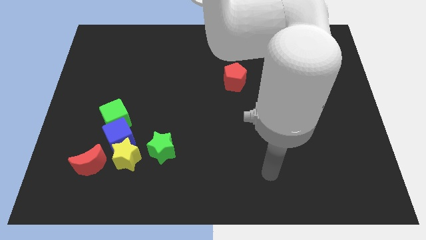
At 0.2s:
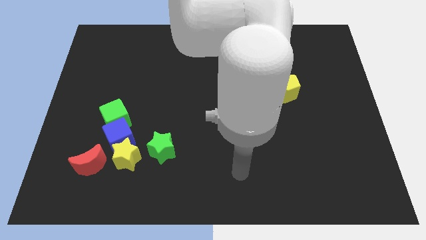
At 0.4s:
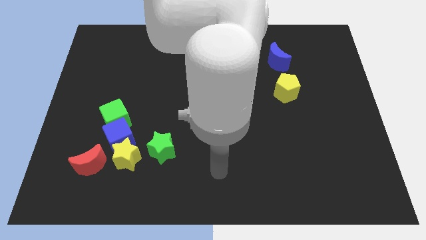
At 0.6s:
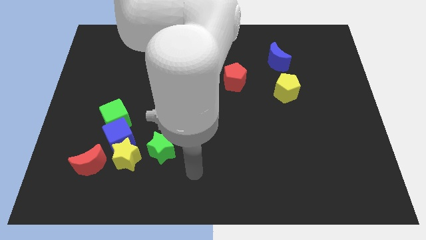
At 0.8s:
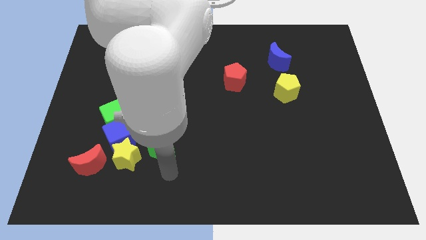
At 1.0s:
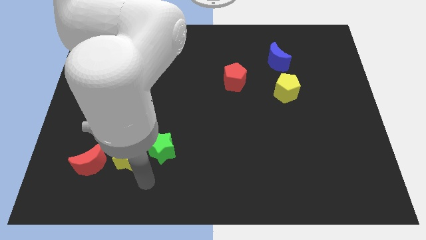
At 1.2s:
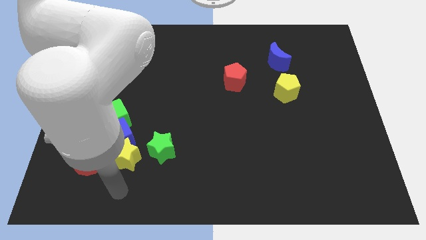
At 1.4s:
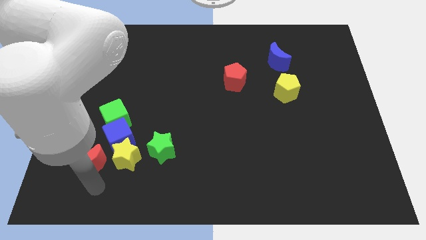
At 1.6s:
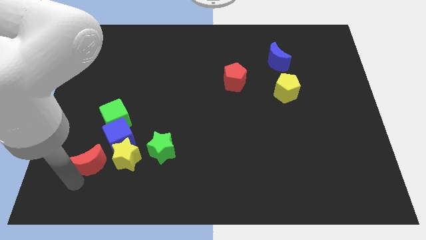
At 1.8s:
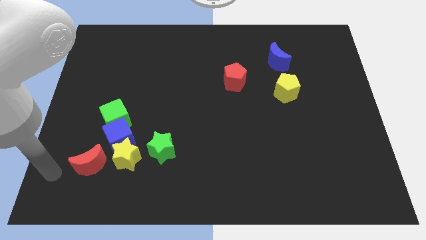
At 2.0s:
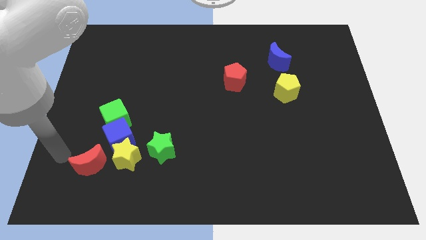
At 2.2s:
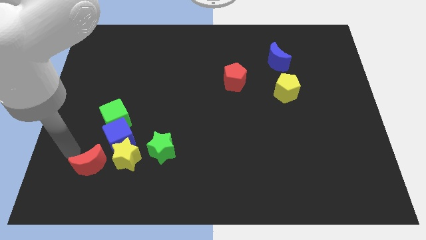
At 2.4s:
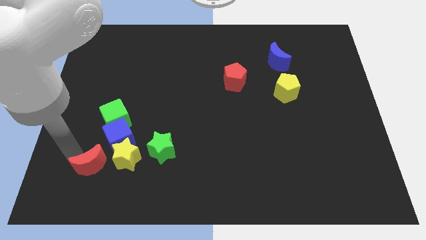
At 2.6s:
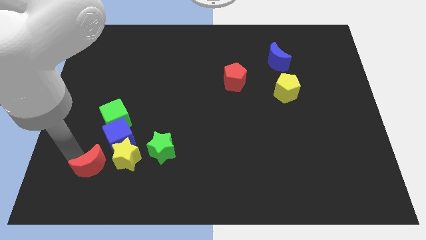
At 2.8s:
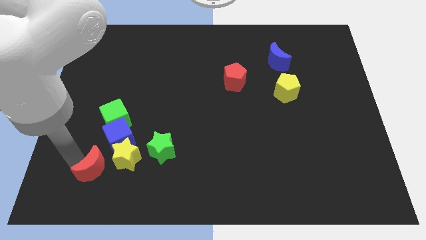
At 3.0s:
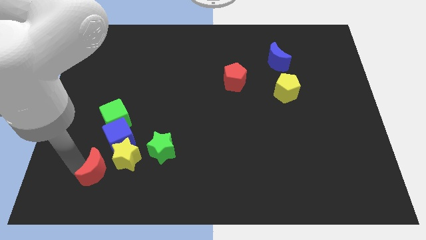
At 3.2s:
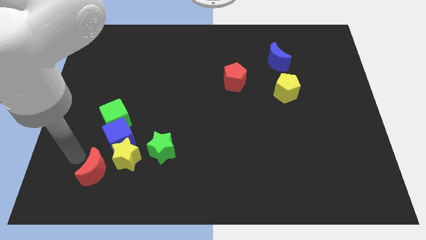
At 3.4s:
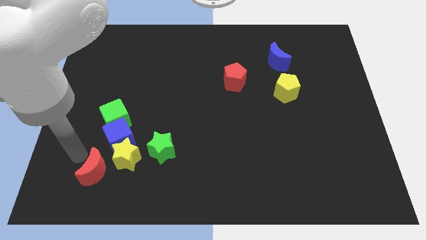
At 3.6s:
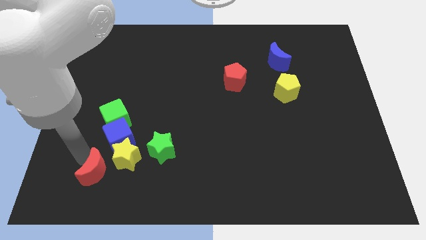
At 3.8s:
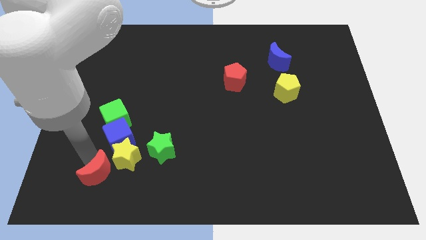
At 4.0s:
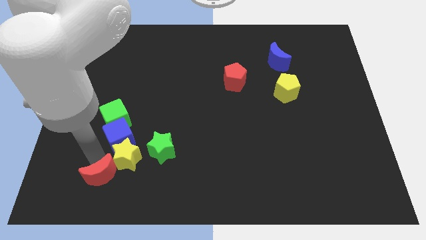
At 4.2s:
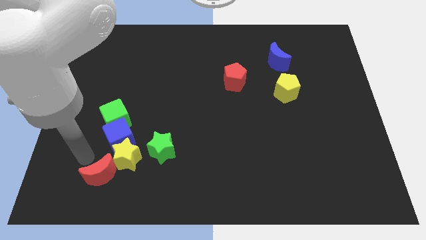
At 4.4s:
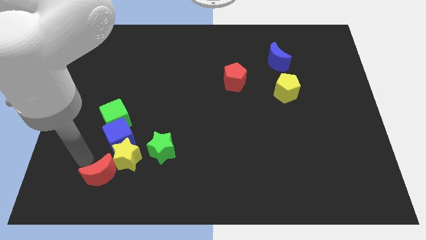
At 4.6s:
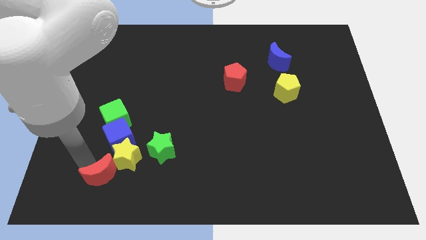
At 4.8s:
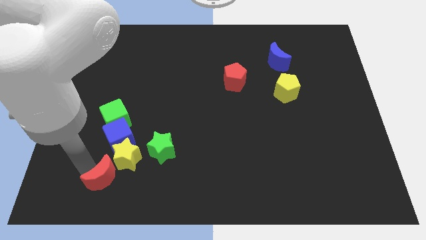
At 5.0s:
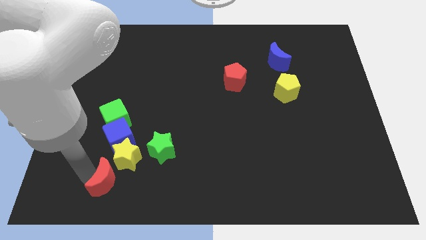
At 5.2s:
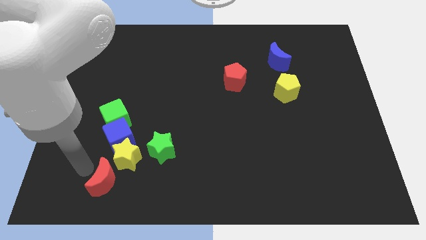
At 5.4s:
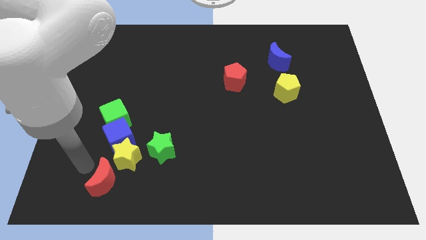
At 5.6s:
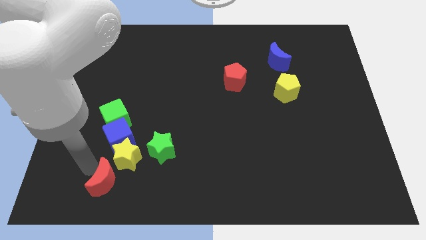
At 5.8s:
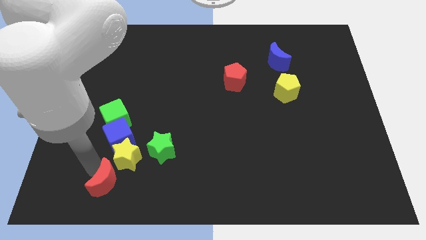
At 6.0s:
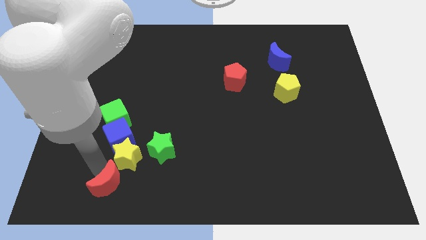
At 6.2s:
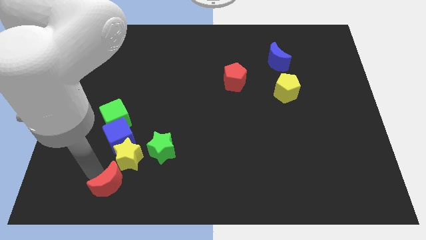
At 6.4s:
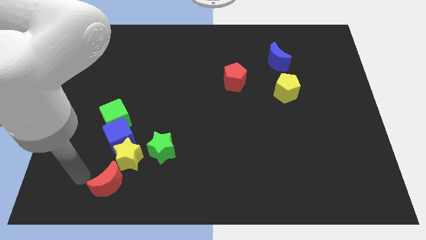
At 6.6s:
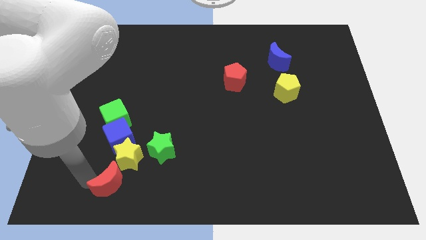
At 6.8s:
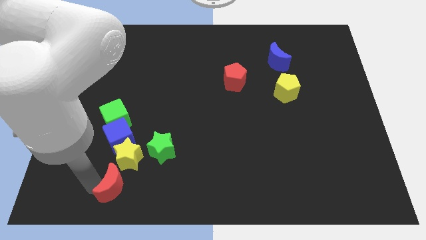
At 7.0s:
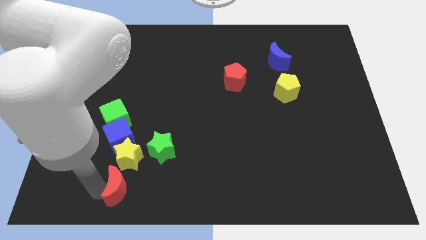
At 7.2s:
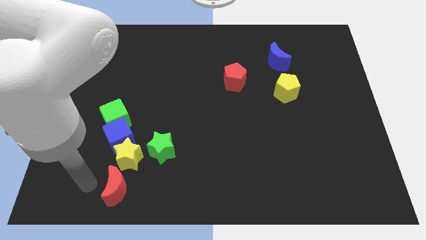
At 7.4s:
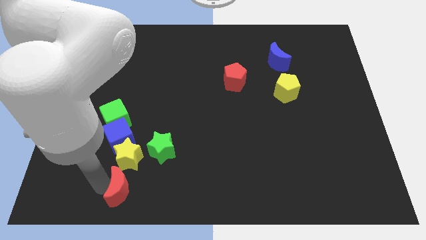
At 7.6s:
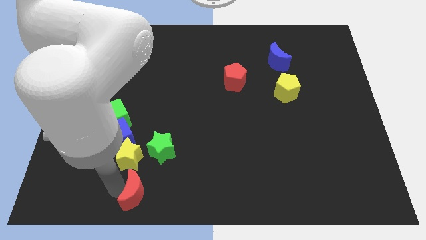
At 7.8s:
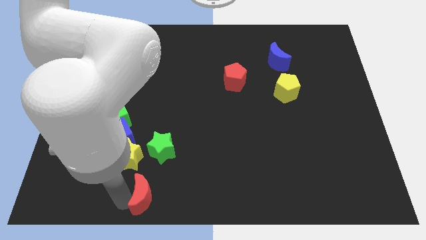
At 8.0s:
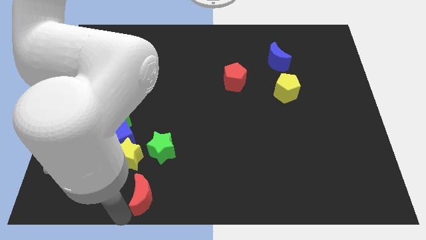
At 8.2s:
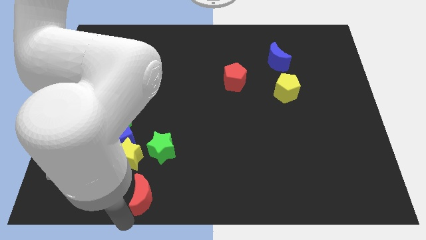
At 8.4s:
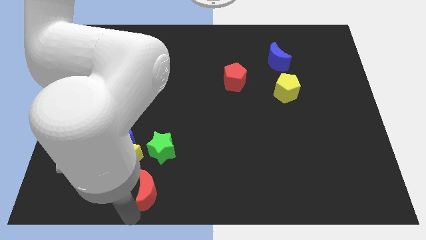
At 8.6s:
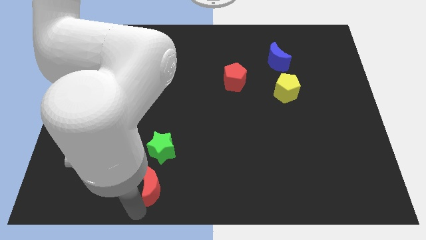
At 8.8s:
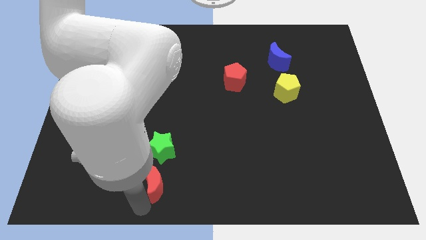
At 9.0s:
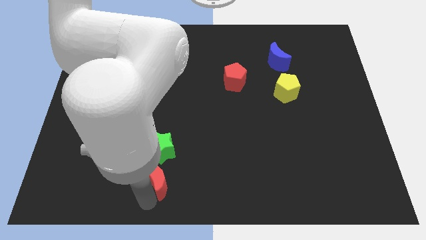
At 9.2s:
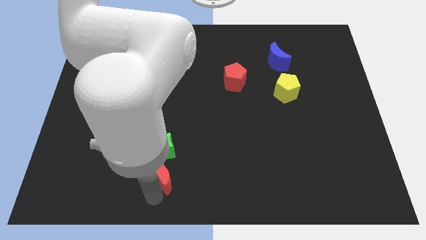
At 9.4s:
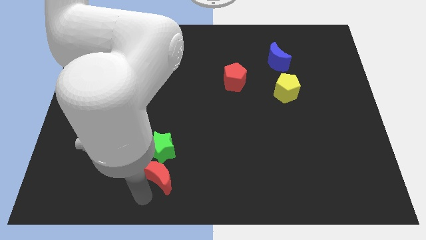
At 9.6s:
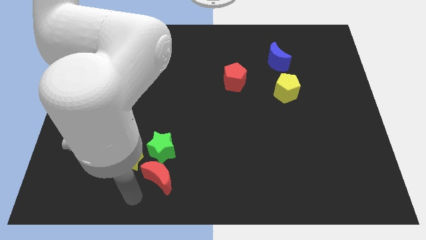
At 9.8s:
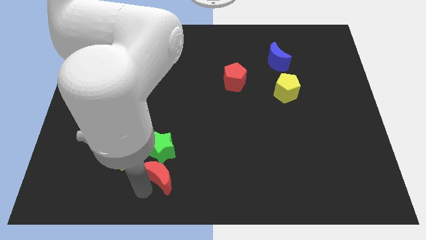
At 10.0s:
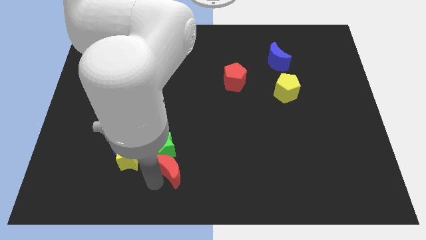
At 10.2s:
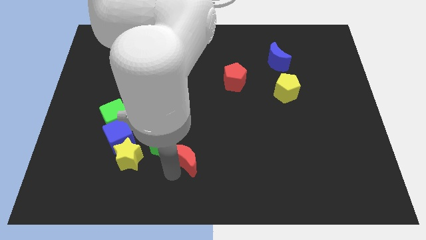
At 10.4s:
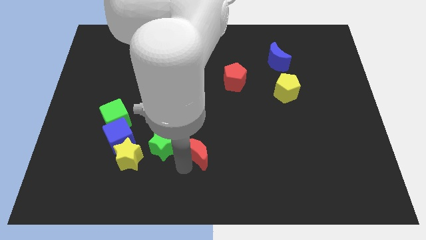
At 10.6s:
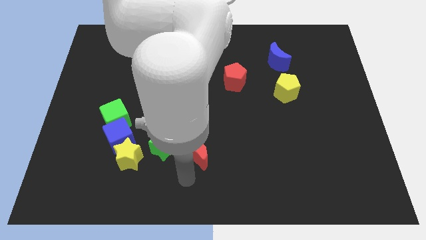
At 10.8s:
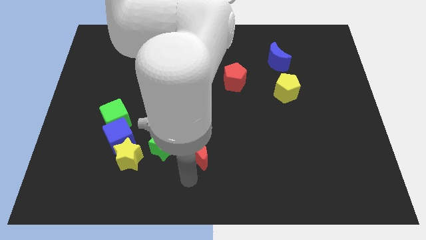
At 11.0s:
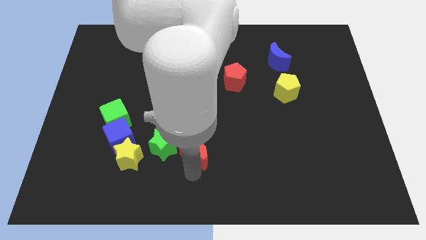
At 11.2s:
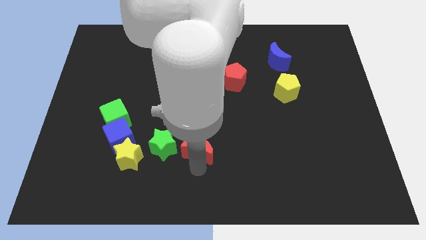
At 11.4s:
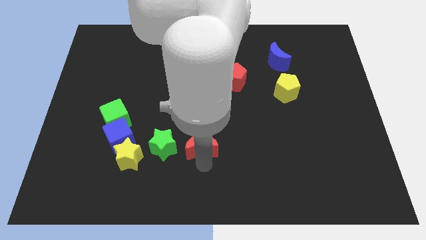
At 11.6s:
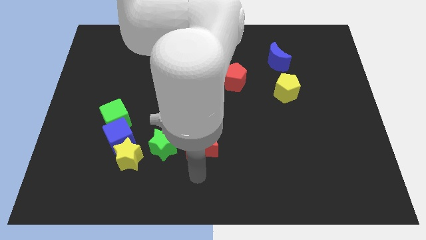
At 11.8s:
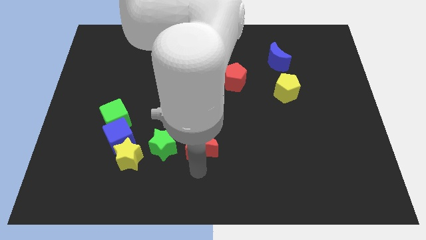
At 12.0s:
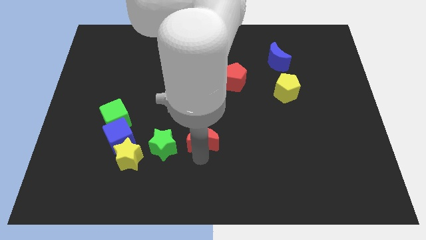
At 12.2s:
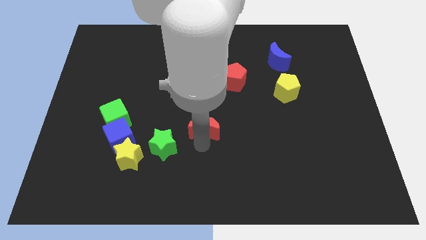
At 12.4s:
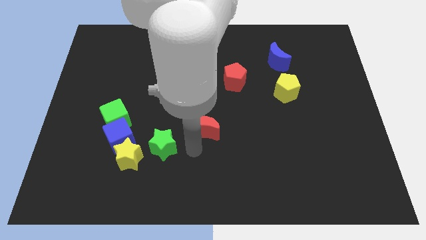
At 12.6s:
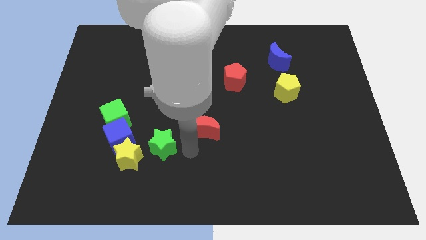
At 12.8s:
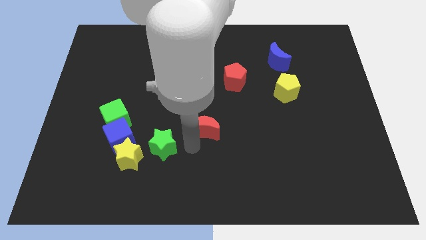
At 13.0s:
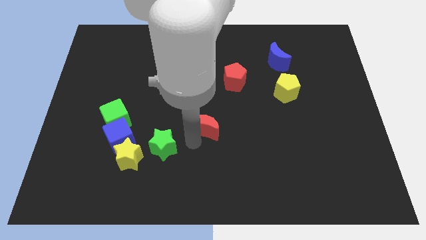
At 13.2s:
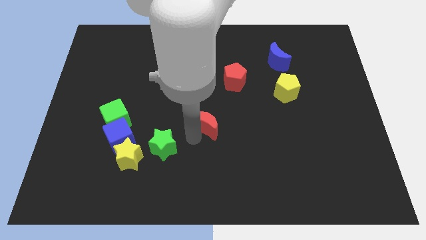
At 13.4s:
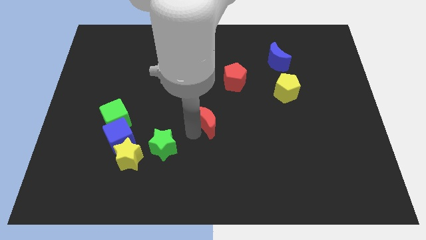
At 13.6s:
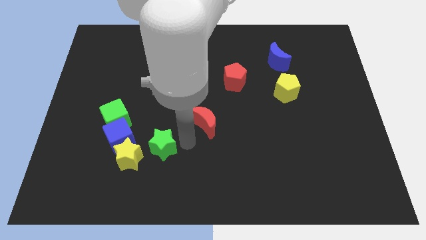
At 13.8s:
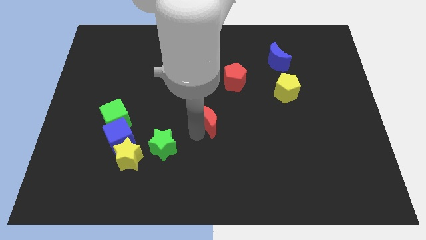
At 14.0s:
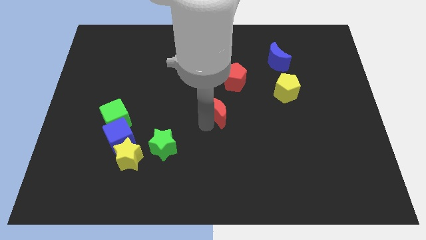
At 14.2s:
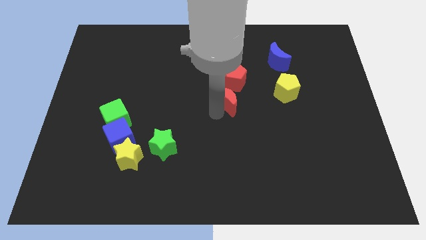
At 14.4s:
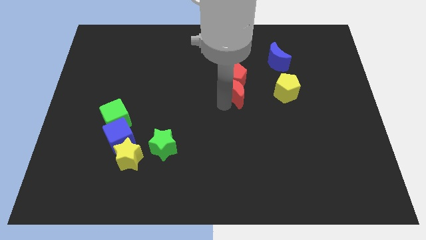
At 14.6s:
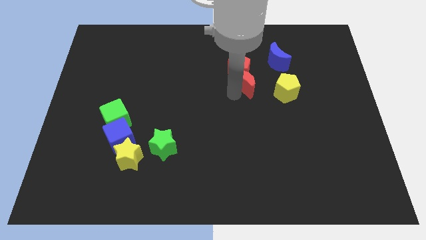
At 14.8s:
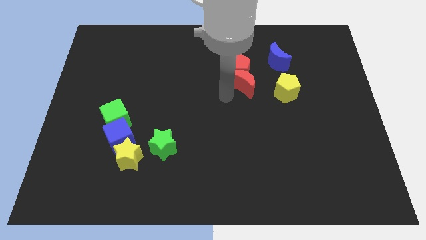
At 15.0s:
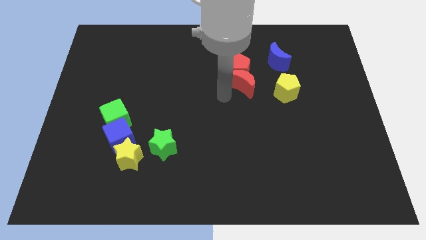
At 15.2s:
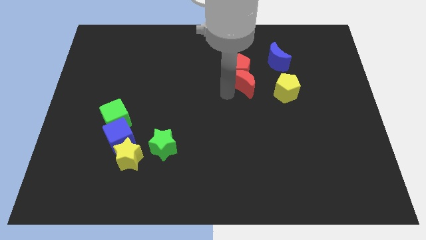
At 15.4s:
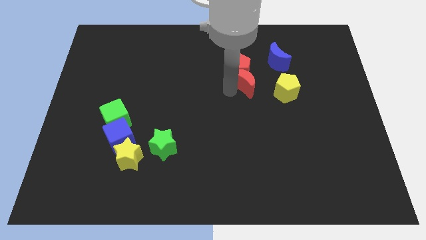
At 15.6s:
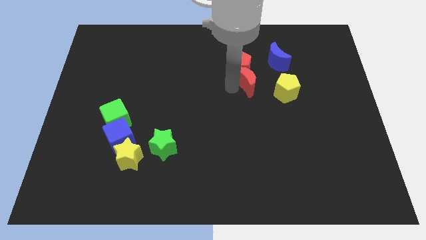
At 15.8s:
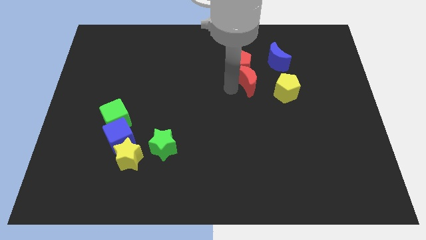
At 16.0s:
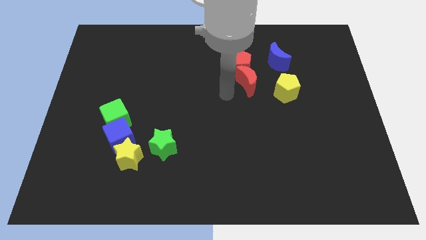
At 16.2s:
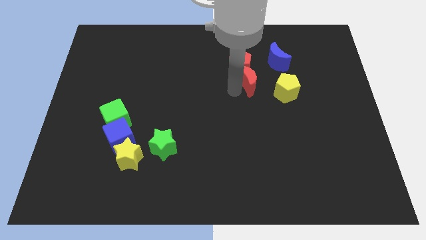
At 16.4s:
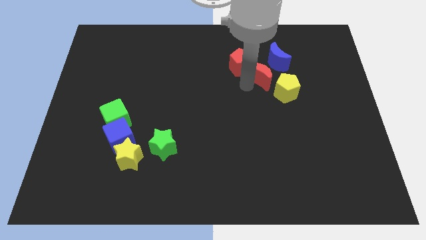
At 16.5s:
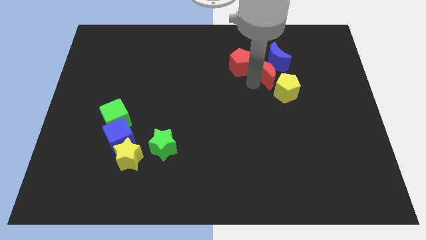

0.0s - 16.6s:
push the red moon next to the blue moon
